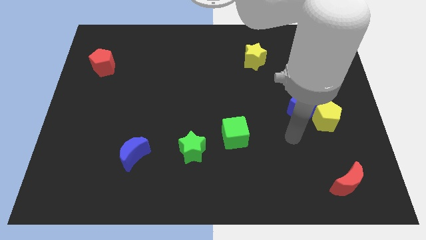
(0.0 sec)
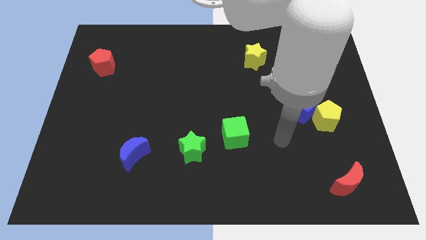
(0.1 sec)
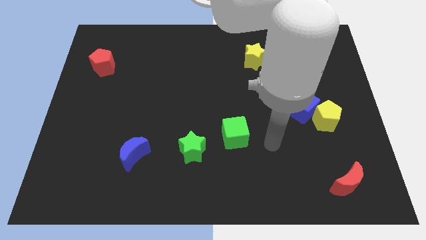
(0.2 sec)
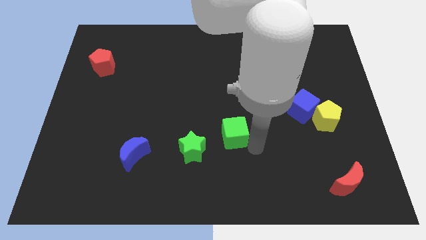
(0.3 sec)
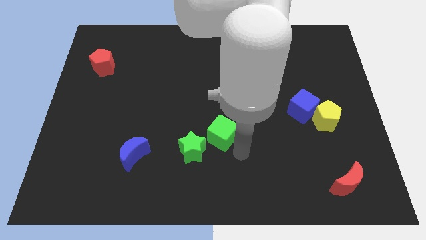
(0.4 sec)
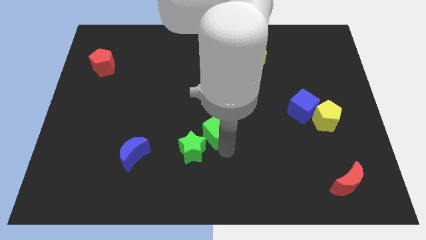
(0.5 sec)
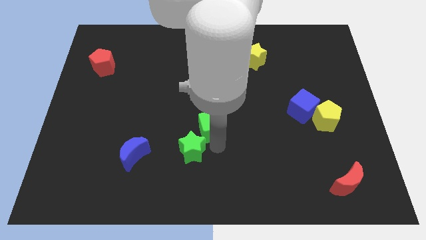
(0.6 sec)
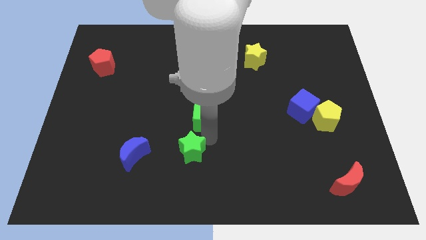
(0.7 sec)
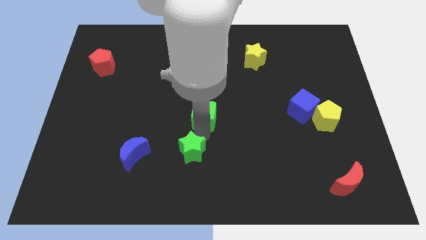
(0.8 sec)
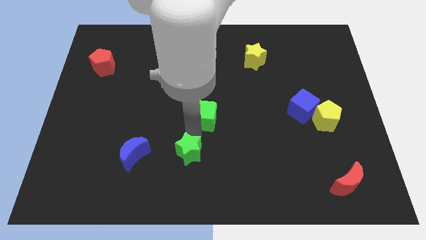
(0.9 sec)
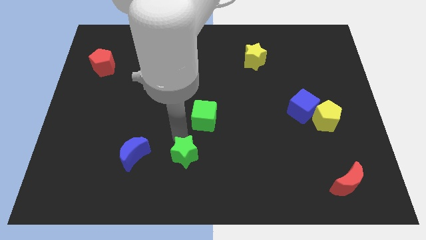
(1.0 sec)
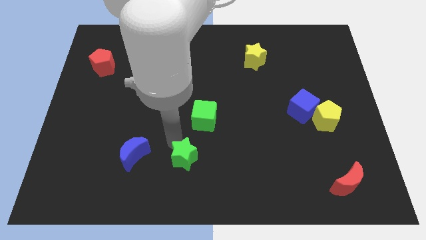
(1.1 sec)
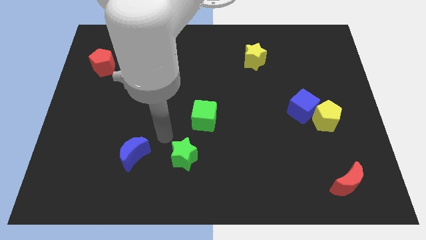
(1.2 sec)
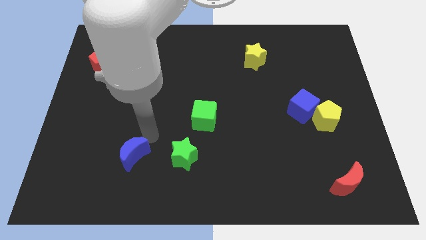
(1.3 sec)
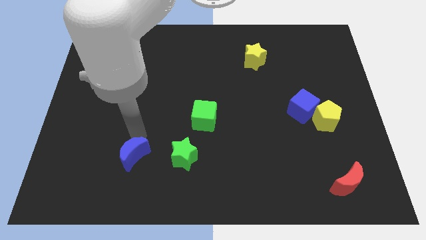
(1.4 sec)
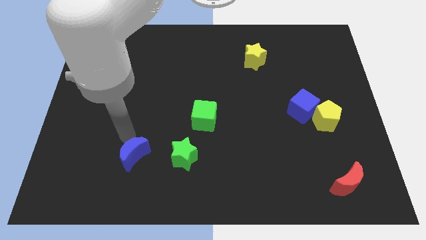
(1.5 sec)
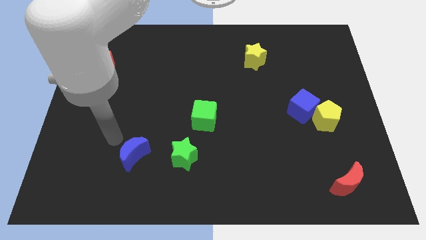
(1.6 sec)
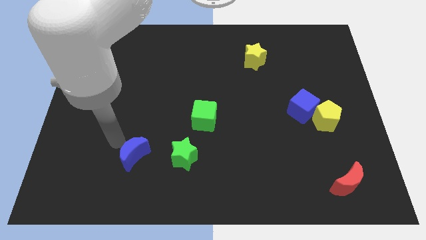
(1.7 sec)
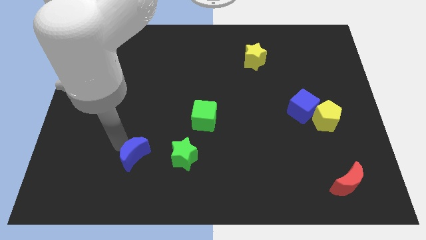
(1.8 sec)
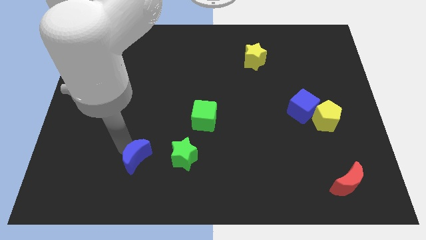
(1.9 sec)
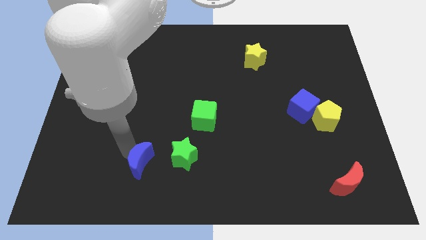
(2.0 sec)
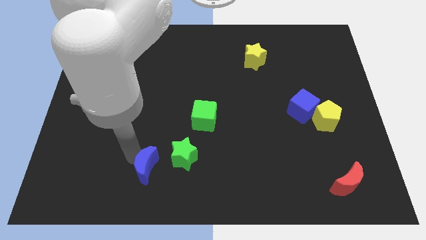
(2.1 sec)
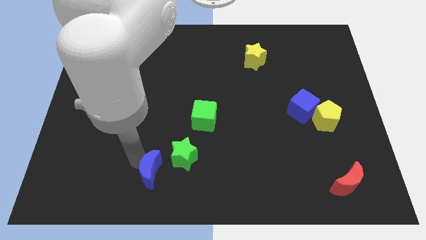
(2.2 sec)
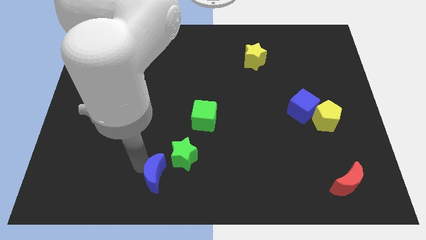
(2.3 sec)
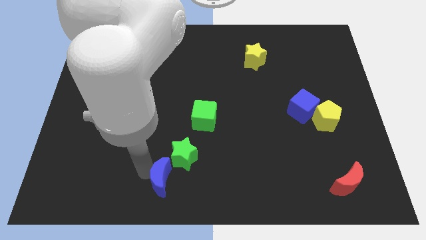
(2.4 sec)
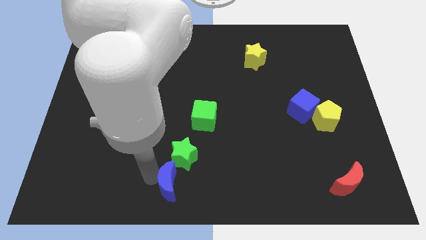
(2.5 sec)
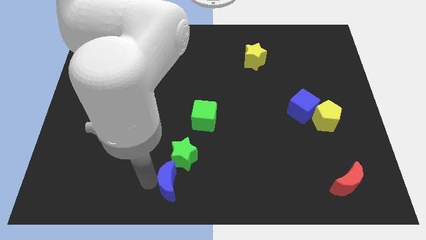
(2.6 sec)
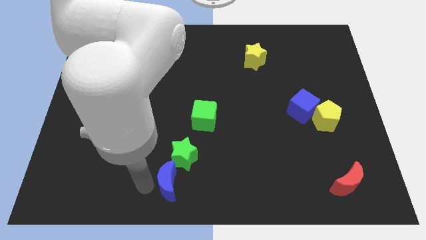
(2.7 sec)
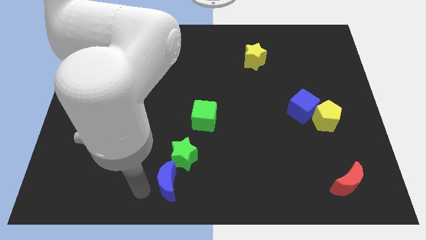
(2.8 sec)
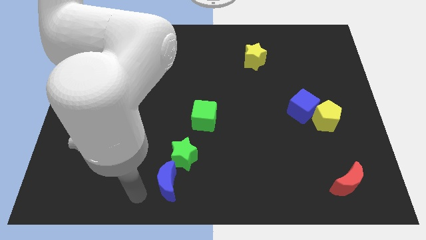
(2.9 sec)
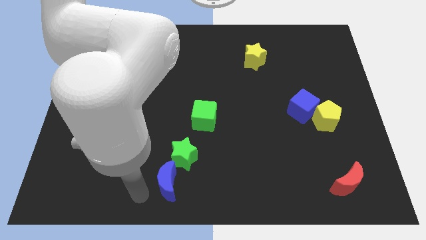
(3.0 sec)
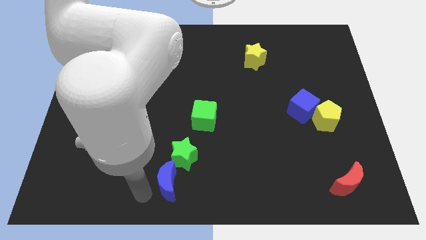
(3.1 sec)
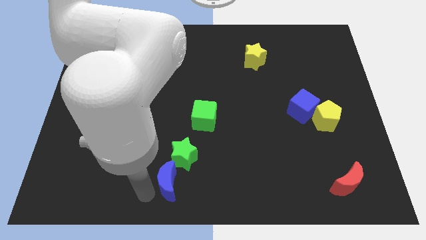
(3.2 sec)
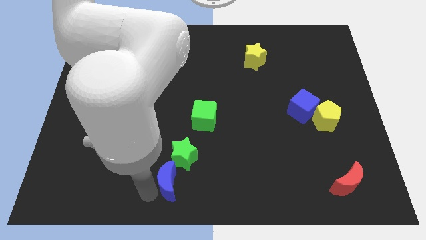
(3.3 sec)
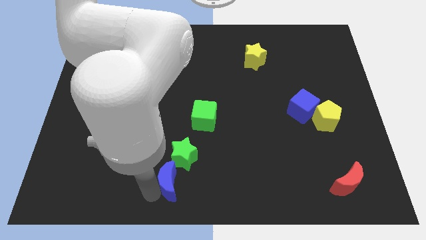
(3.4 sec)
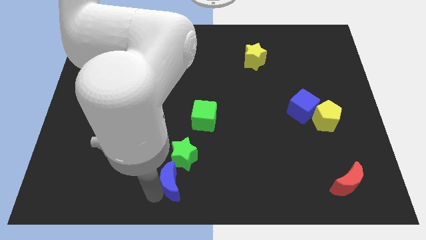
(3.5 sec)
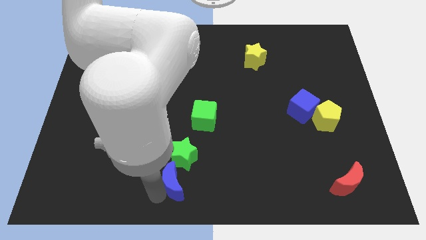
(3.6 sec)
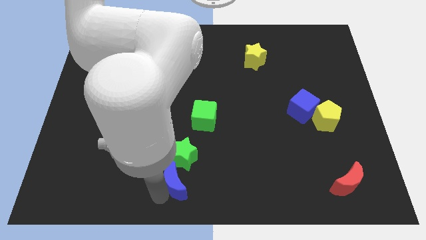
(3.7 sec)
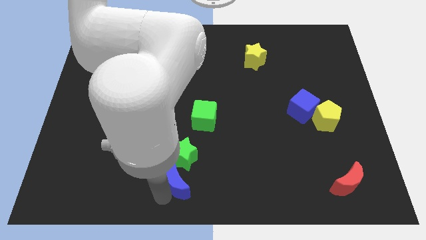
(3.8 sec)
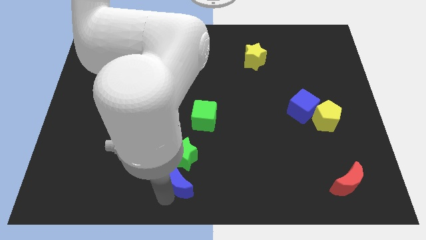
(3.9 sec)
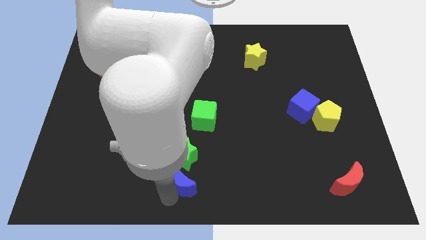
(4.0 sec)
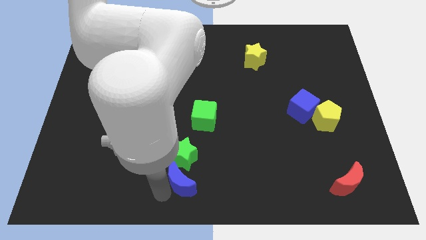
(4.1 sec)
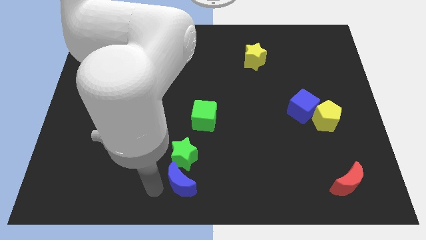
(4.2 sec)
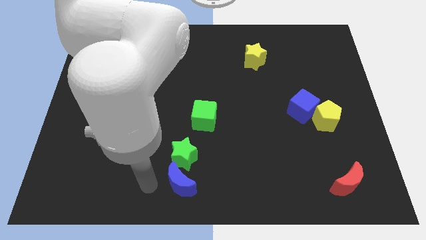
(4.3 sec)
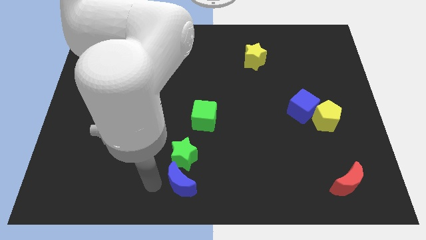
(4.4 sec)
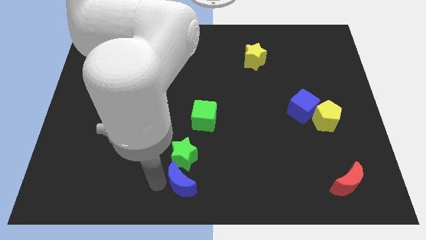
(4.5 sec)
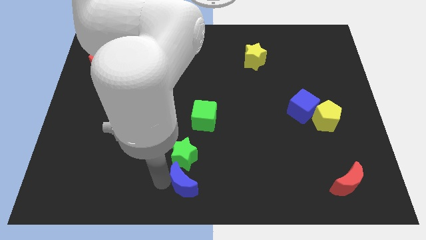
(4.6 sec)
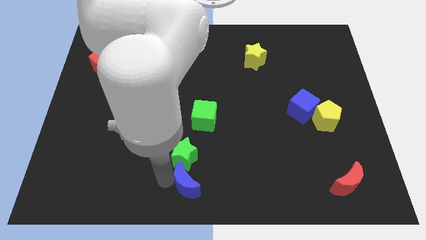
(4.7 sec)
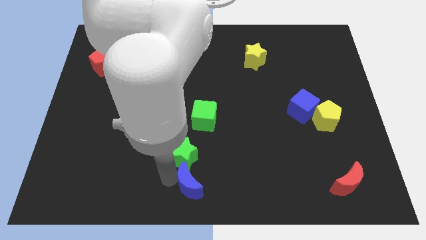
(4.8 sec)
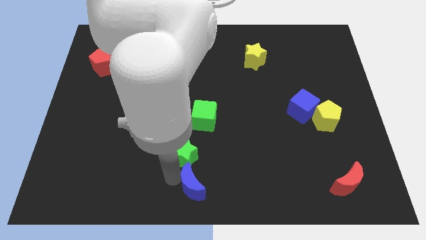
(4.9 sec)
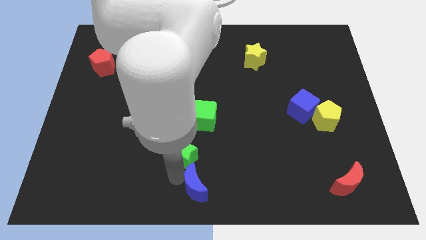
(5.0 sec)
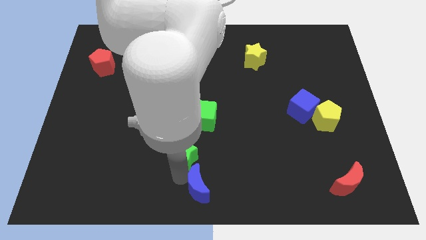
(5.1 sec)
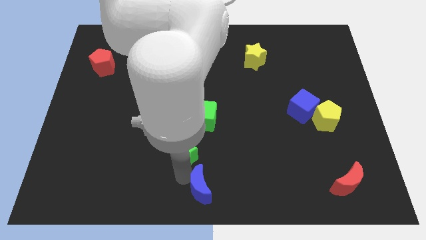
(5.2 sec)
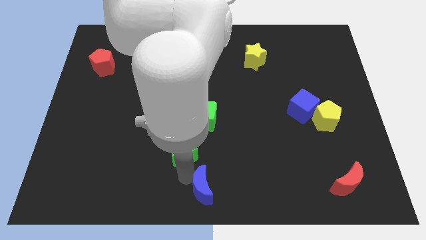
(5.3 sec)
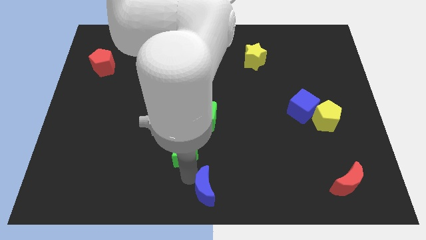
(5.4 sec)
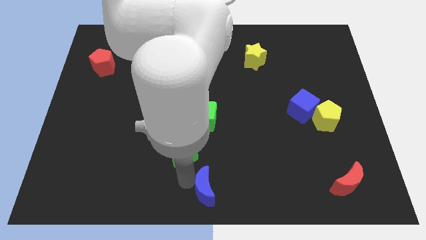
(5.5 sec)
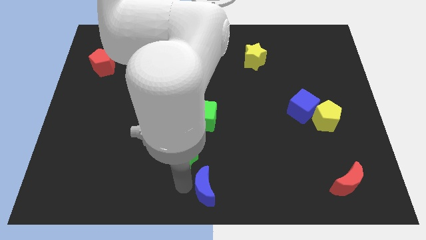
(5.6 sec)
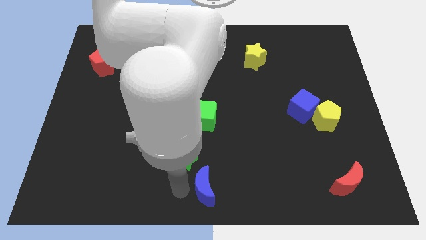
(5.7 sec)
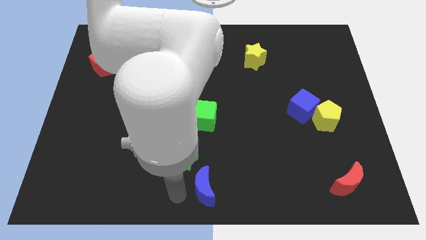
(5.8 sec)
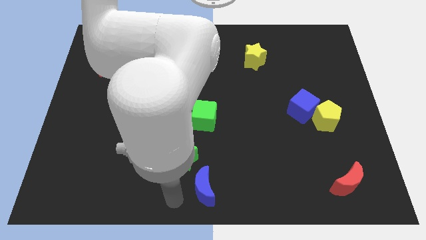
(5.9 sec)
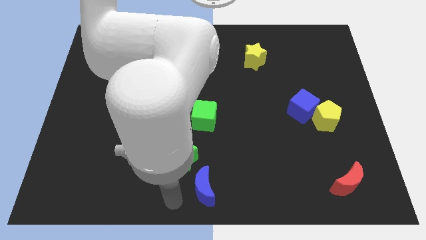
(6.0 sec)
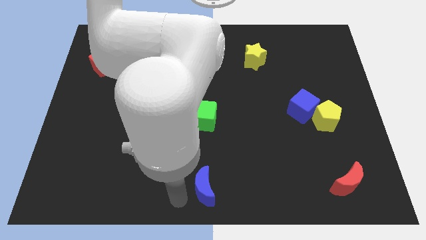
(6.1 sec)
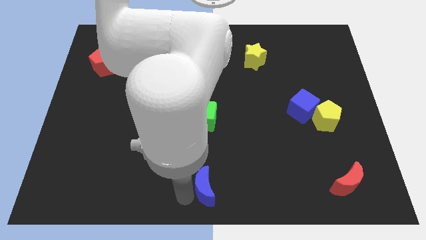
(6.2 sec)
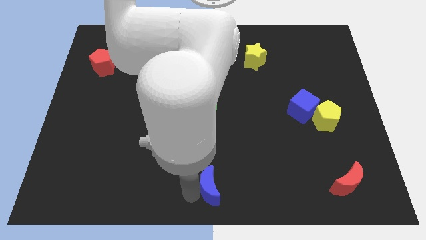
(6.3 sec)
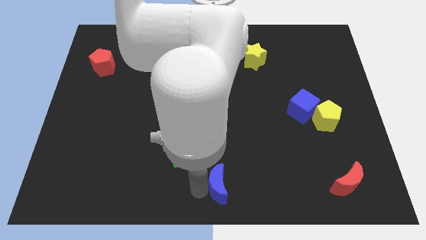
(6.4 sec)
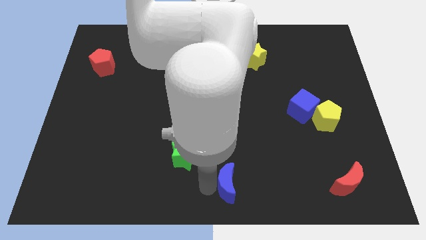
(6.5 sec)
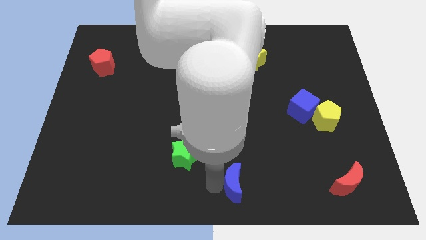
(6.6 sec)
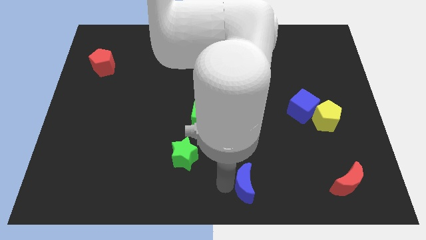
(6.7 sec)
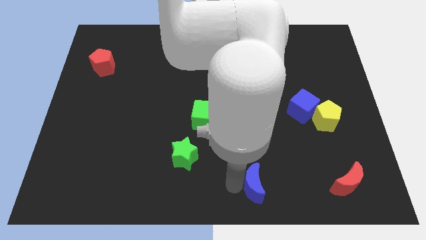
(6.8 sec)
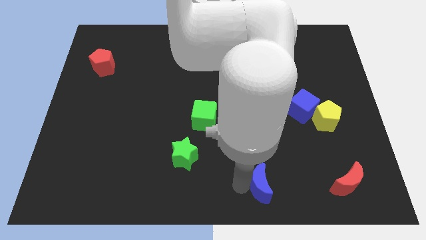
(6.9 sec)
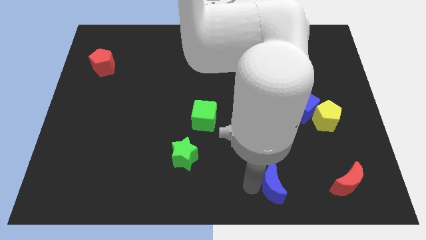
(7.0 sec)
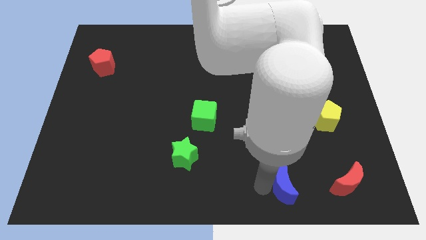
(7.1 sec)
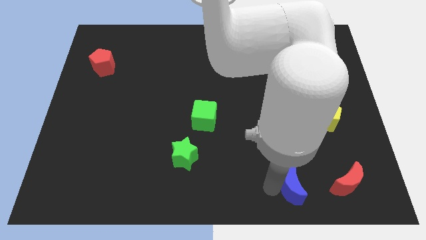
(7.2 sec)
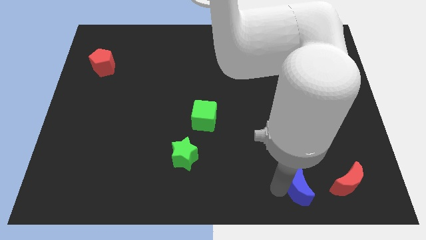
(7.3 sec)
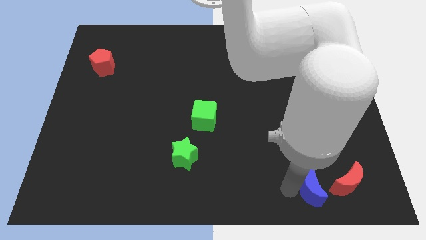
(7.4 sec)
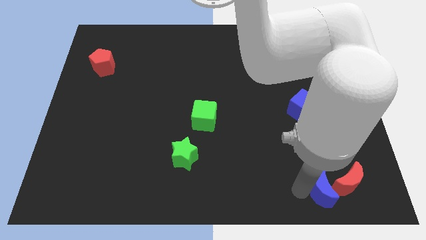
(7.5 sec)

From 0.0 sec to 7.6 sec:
slide the blue moon next to the red moon

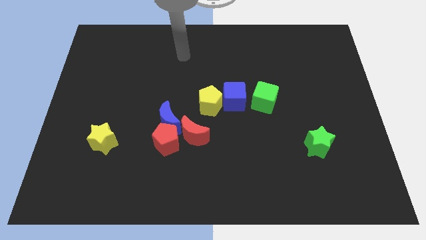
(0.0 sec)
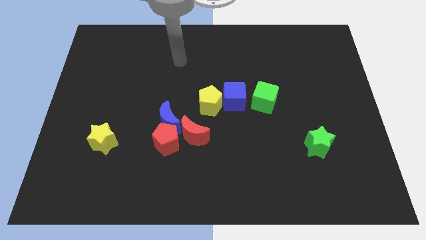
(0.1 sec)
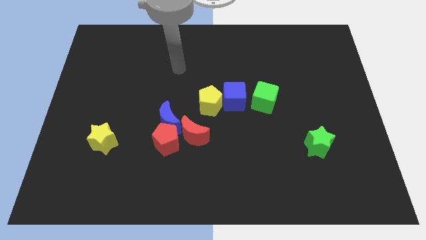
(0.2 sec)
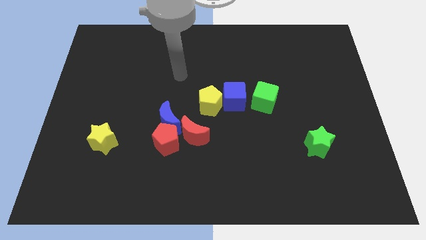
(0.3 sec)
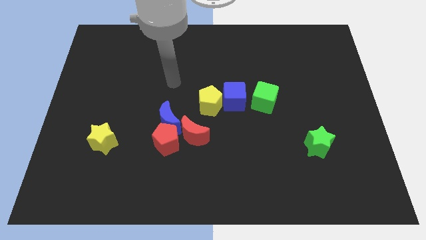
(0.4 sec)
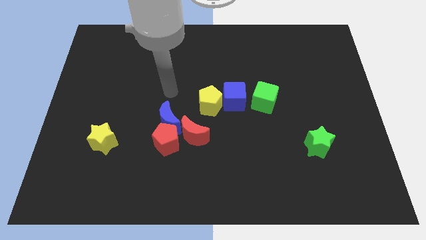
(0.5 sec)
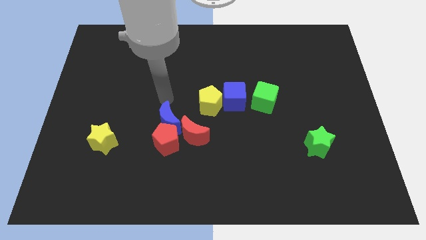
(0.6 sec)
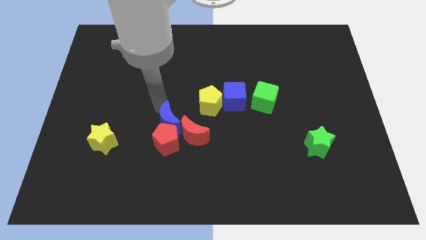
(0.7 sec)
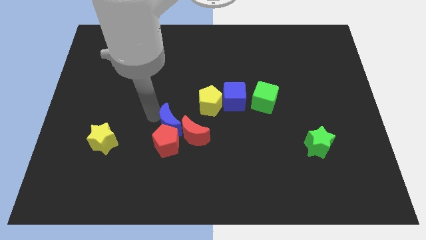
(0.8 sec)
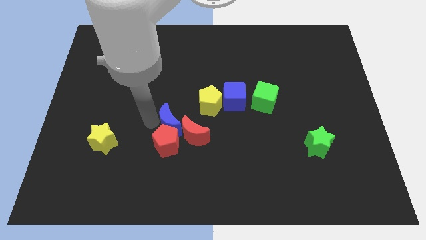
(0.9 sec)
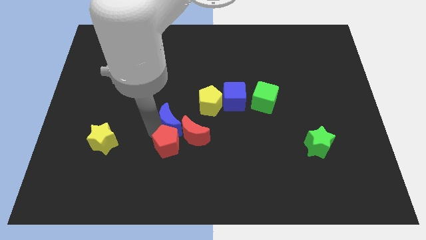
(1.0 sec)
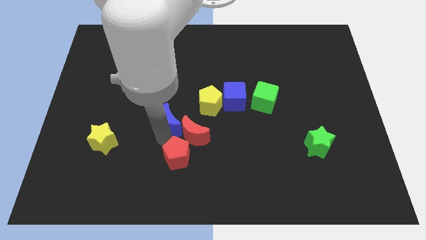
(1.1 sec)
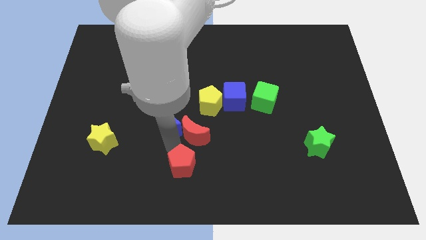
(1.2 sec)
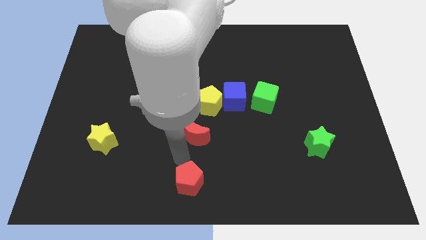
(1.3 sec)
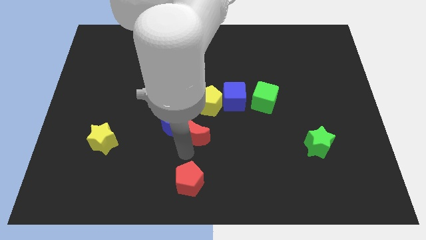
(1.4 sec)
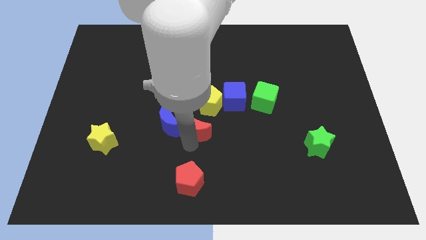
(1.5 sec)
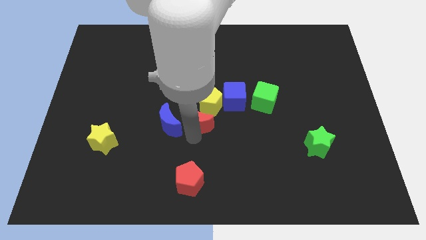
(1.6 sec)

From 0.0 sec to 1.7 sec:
move the red moon towards the yellow pentagon
